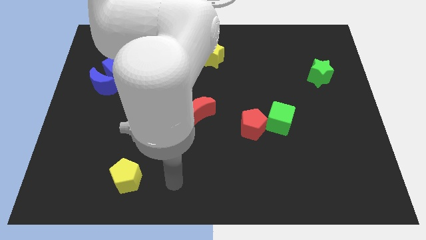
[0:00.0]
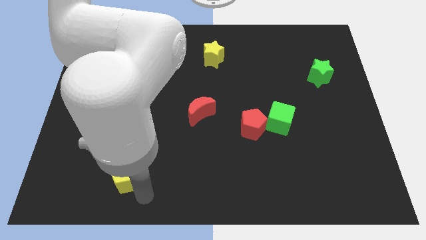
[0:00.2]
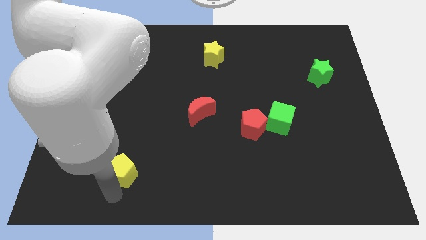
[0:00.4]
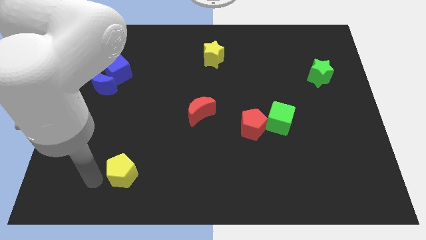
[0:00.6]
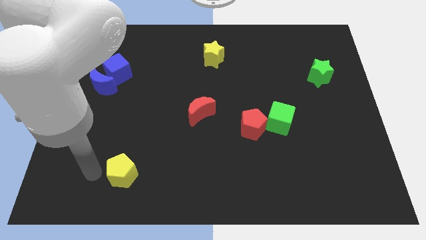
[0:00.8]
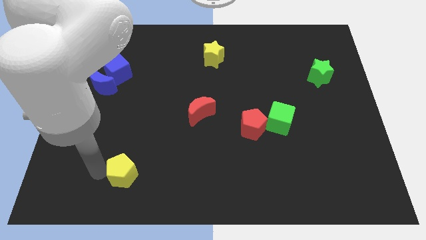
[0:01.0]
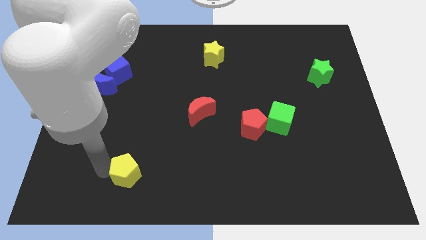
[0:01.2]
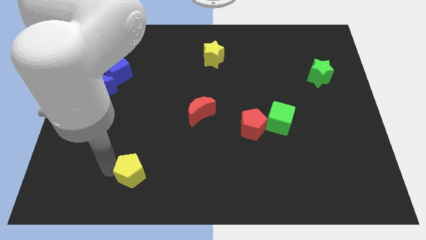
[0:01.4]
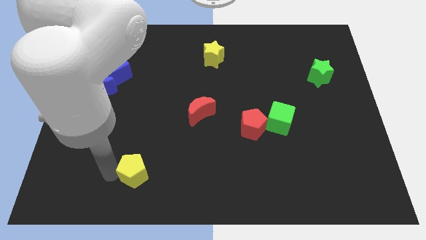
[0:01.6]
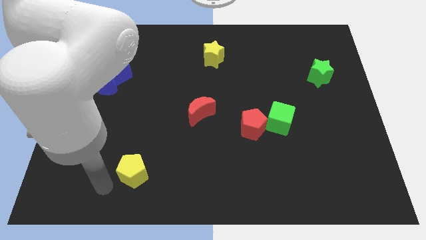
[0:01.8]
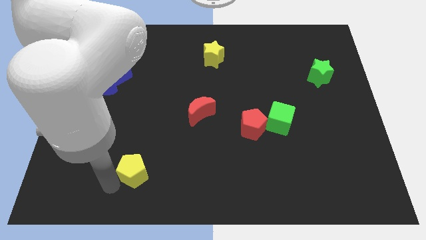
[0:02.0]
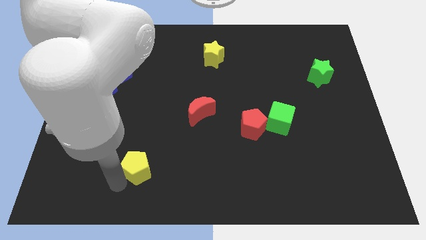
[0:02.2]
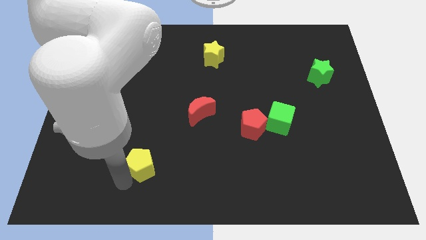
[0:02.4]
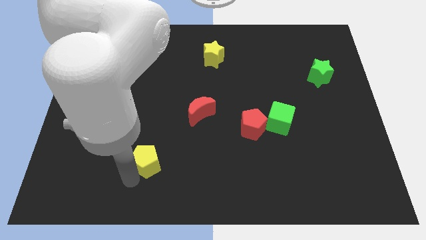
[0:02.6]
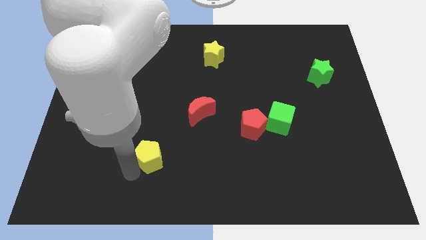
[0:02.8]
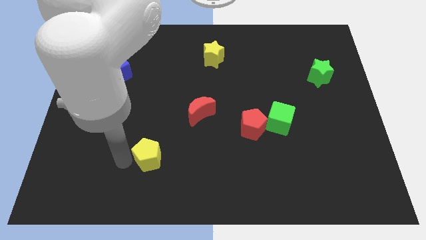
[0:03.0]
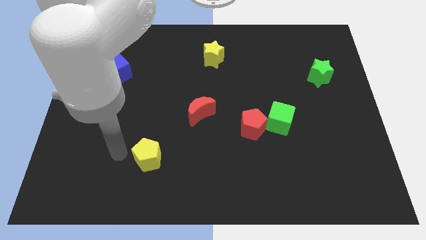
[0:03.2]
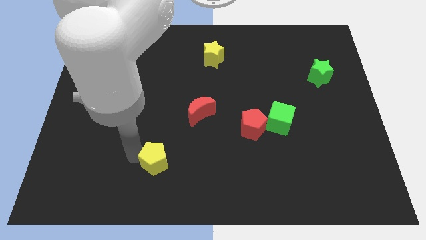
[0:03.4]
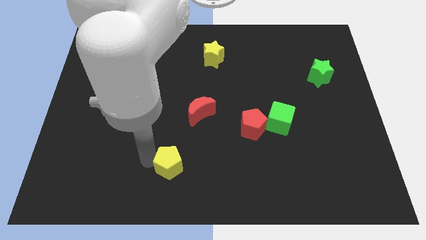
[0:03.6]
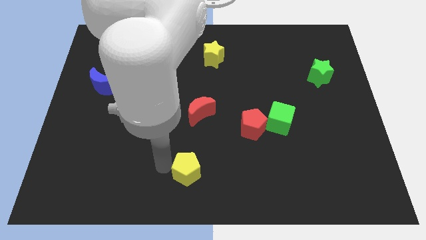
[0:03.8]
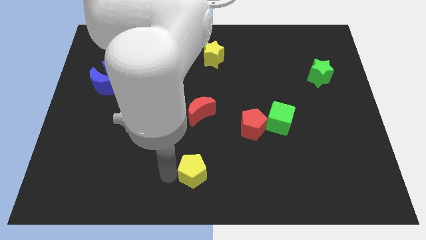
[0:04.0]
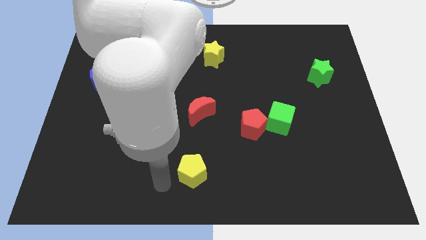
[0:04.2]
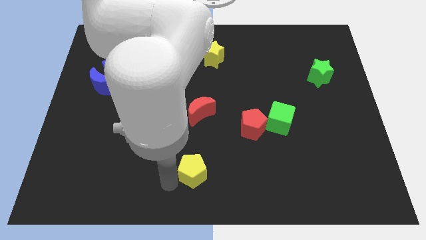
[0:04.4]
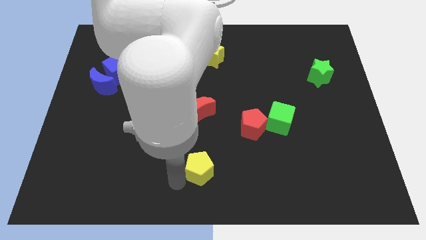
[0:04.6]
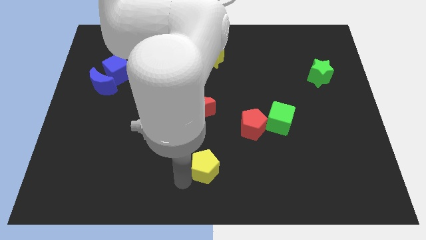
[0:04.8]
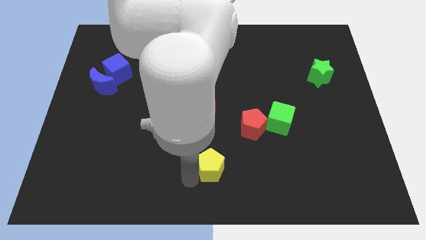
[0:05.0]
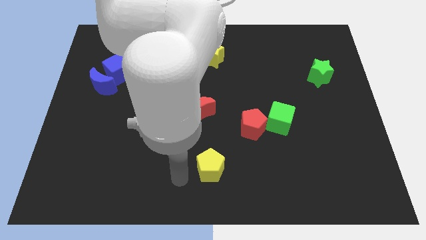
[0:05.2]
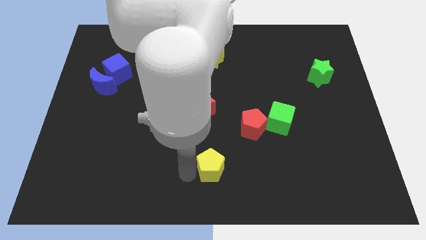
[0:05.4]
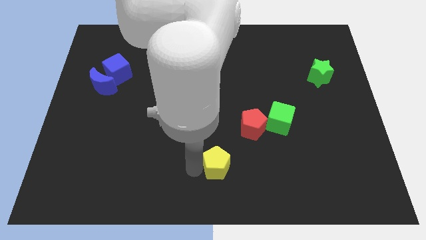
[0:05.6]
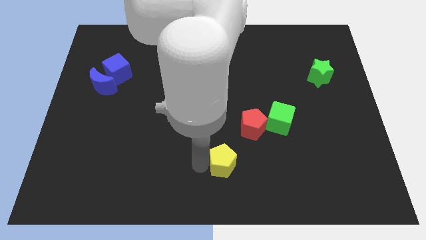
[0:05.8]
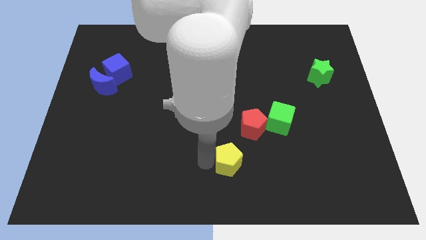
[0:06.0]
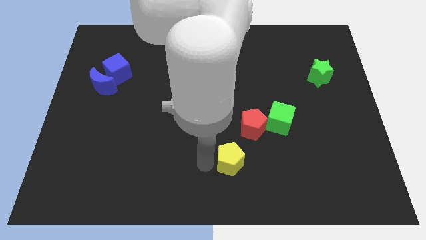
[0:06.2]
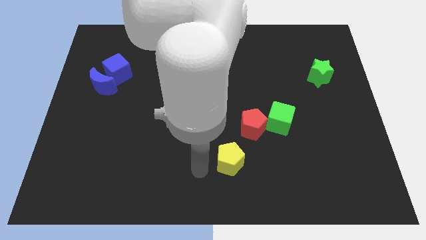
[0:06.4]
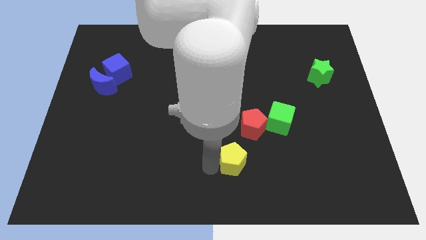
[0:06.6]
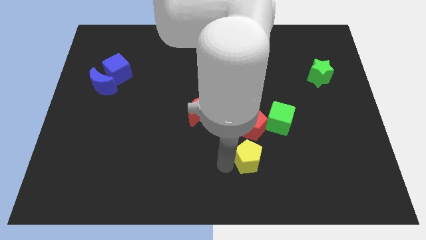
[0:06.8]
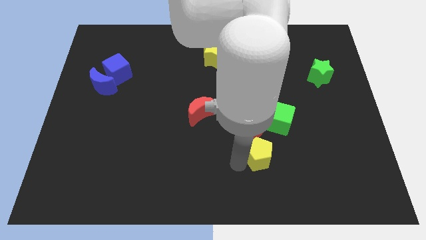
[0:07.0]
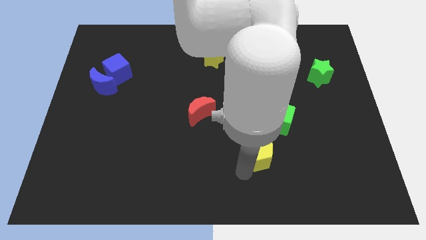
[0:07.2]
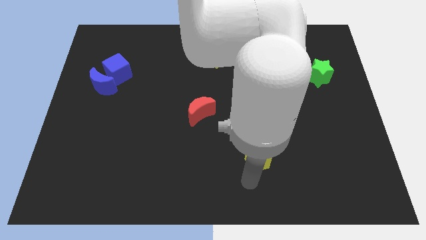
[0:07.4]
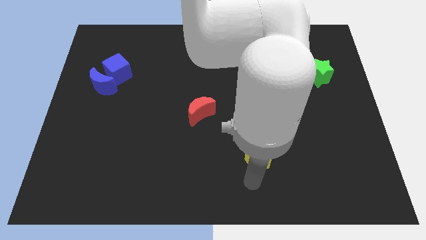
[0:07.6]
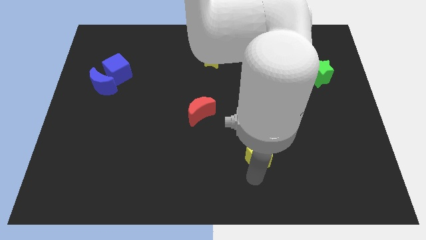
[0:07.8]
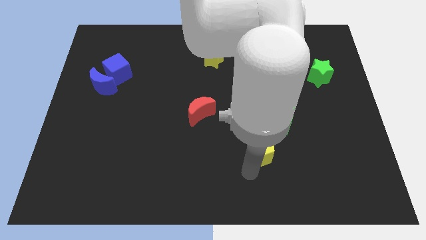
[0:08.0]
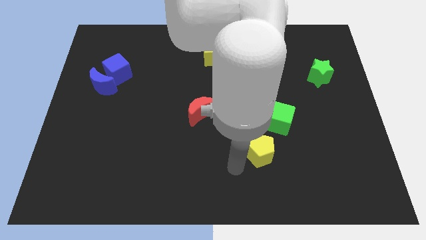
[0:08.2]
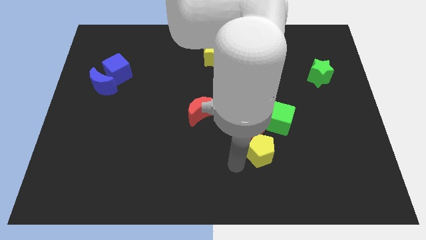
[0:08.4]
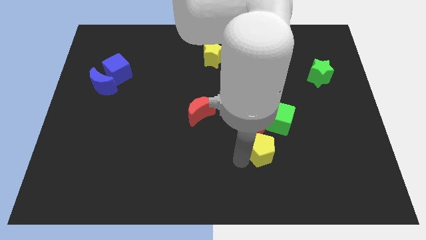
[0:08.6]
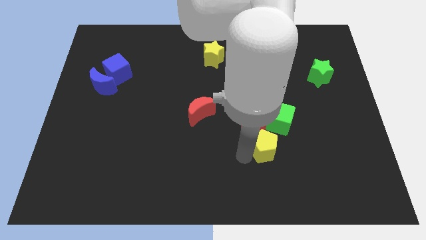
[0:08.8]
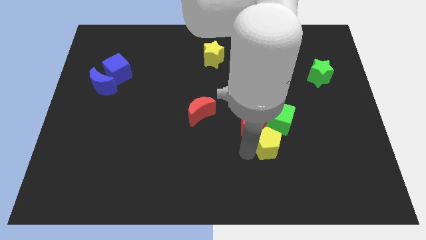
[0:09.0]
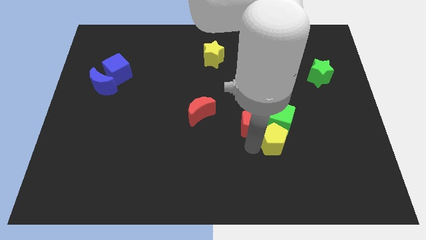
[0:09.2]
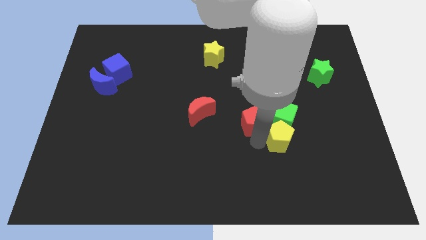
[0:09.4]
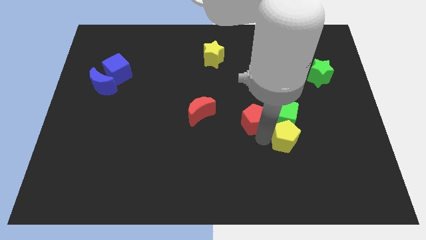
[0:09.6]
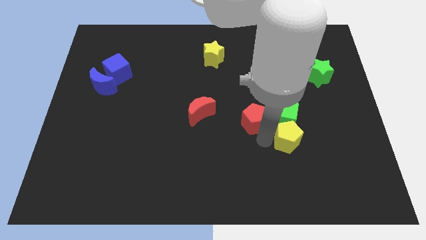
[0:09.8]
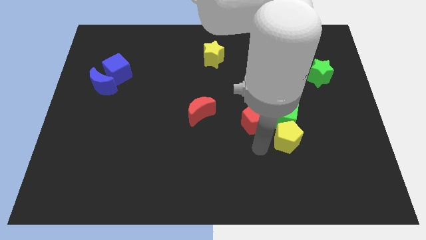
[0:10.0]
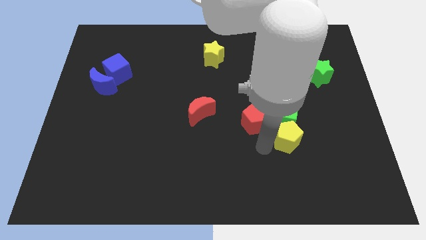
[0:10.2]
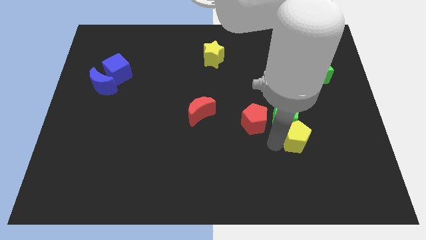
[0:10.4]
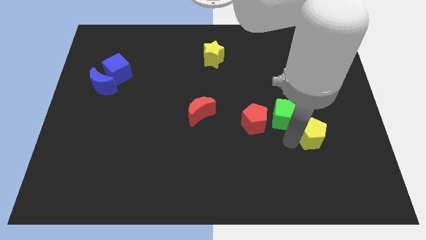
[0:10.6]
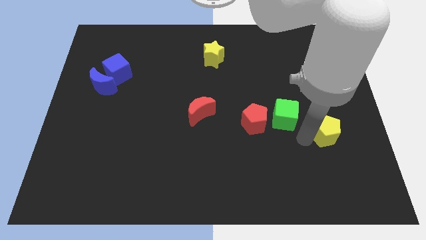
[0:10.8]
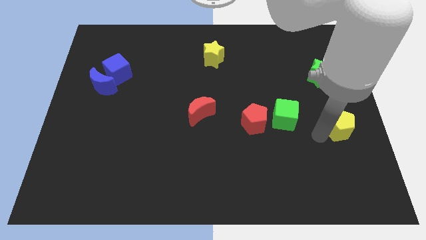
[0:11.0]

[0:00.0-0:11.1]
slide the yellow pentagon to the right side

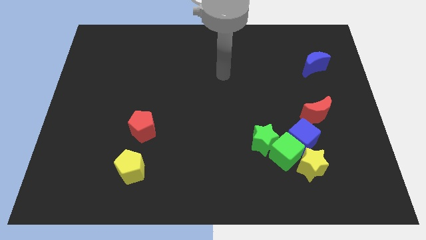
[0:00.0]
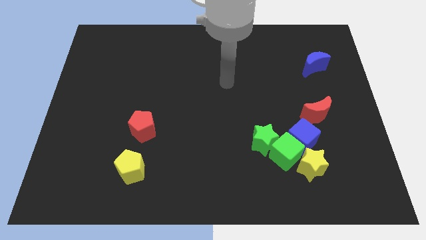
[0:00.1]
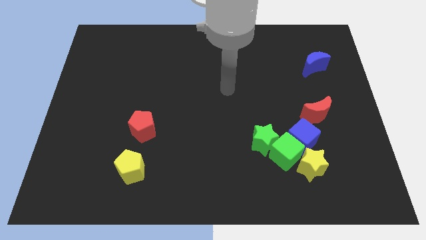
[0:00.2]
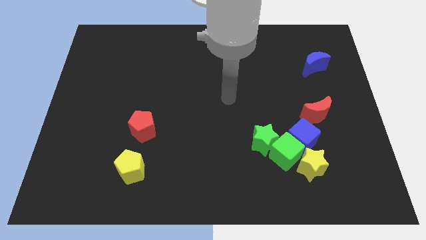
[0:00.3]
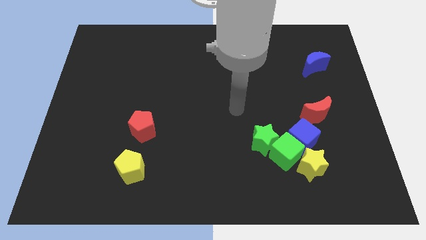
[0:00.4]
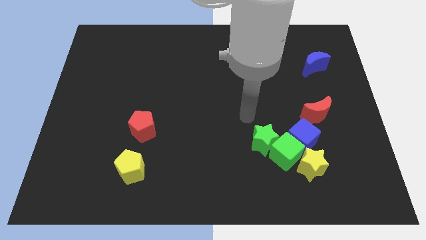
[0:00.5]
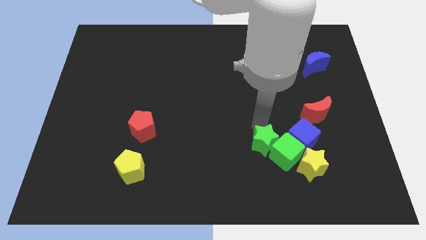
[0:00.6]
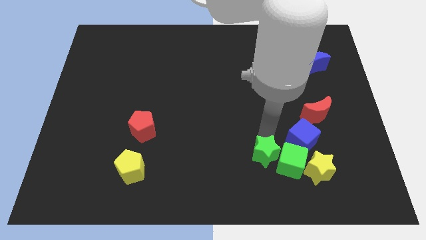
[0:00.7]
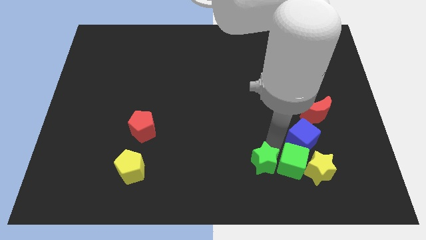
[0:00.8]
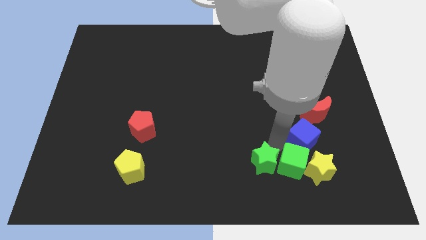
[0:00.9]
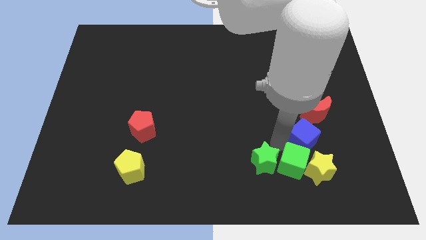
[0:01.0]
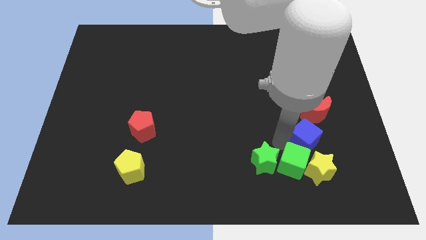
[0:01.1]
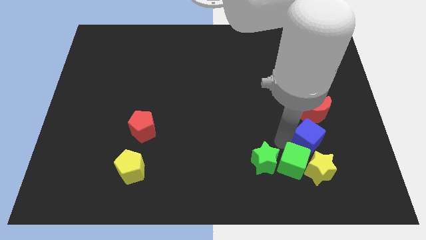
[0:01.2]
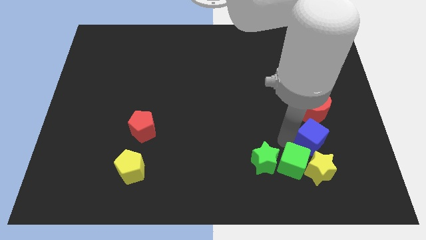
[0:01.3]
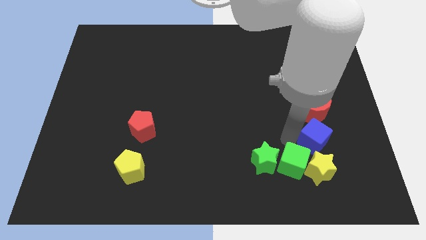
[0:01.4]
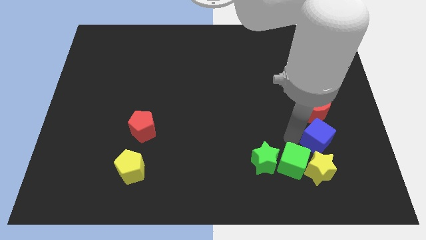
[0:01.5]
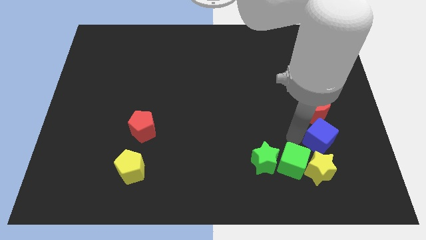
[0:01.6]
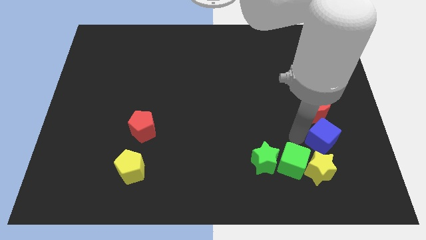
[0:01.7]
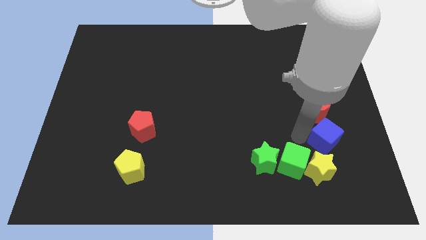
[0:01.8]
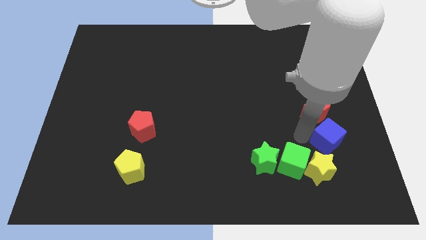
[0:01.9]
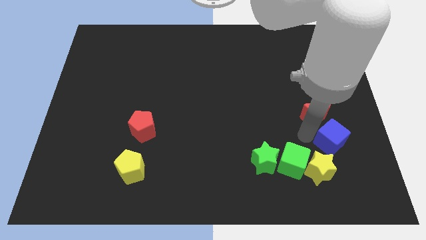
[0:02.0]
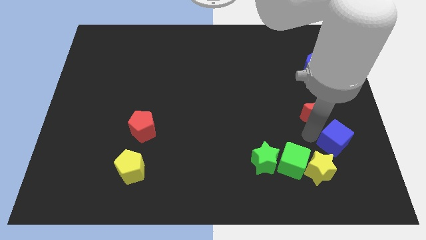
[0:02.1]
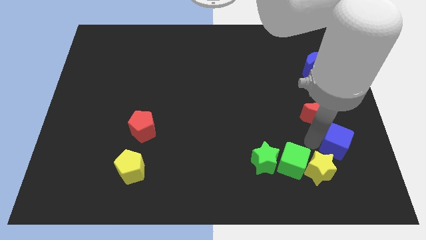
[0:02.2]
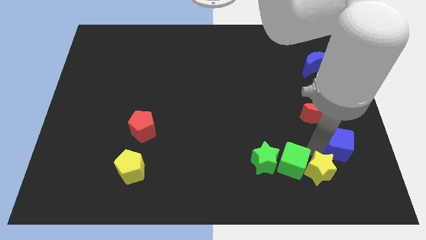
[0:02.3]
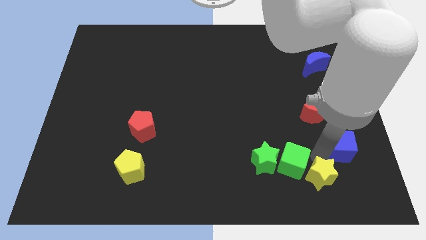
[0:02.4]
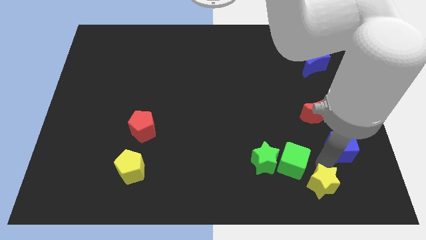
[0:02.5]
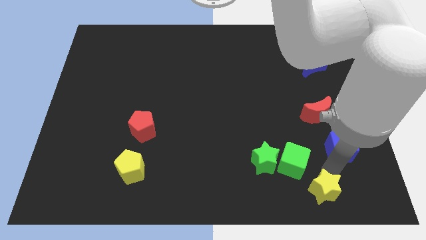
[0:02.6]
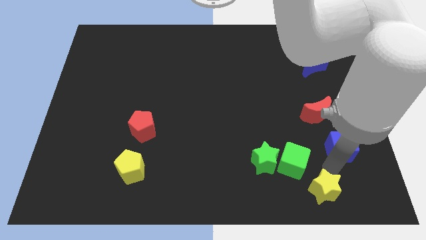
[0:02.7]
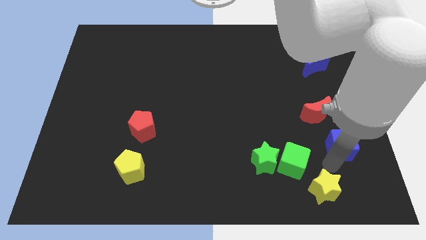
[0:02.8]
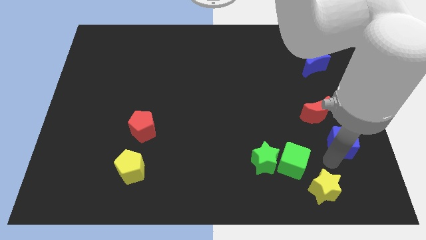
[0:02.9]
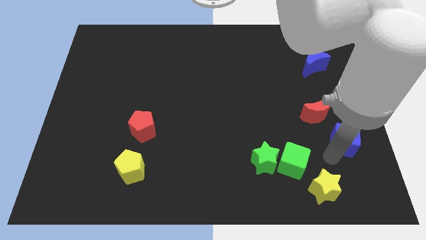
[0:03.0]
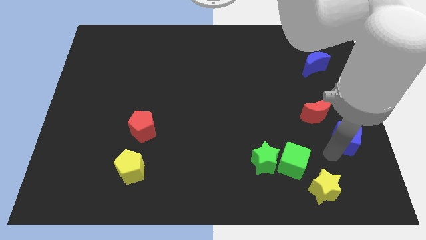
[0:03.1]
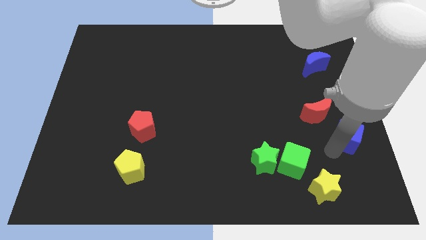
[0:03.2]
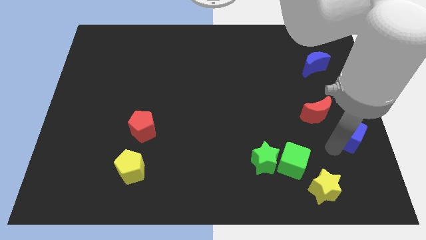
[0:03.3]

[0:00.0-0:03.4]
slide the blue cube to the center right
